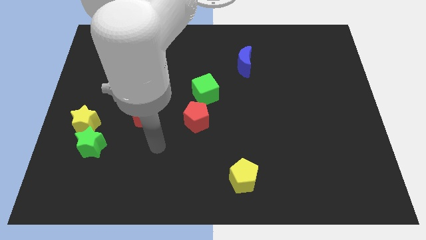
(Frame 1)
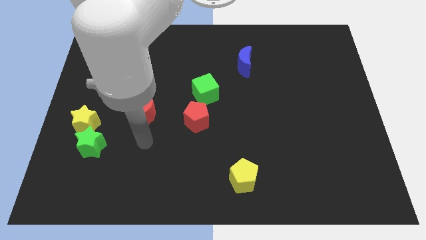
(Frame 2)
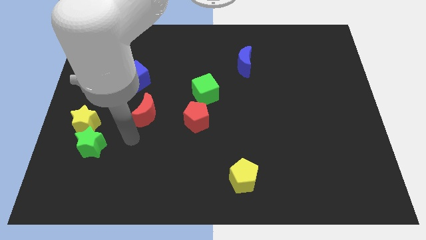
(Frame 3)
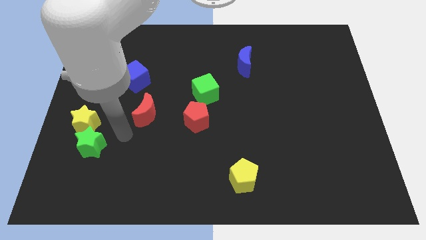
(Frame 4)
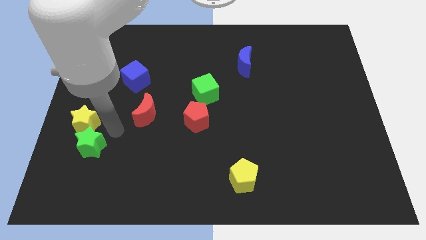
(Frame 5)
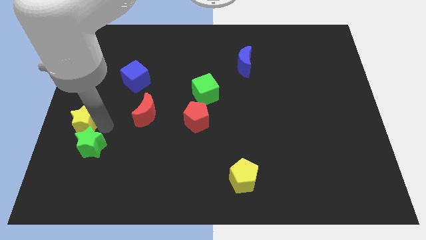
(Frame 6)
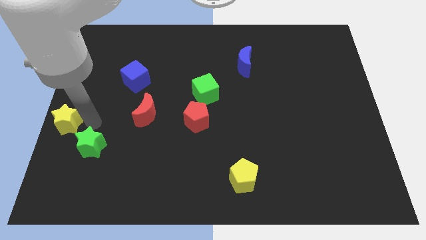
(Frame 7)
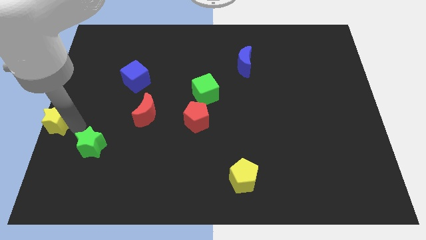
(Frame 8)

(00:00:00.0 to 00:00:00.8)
separate the green star from the yellow star

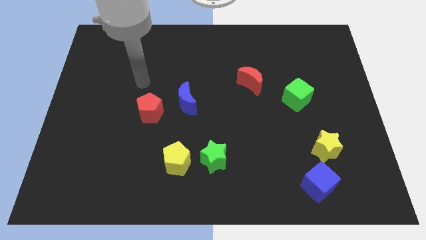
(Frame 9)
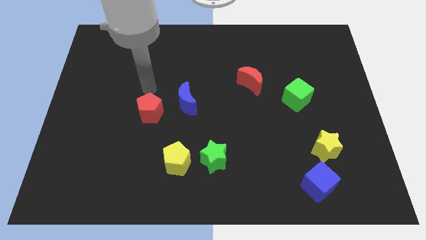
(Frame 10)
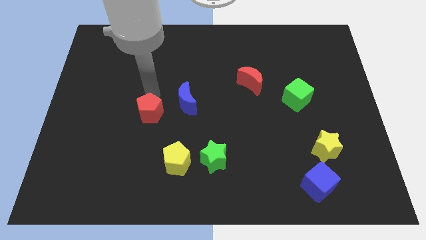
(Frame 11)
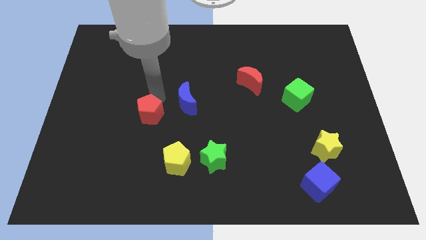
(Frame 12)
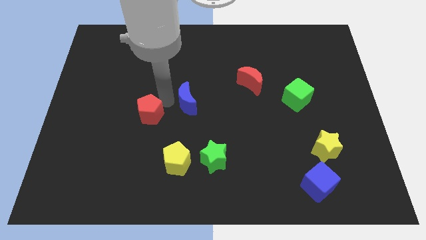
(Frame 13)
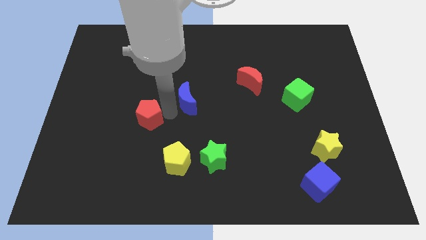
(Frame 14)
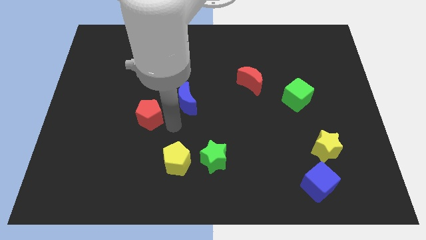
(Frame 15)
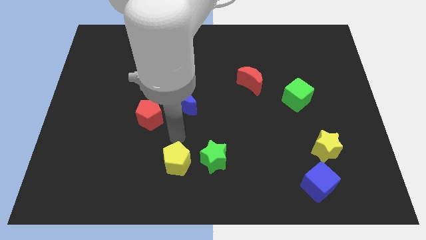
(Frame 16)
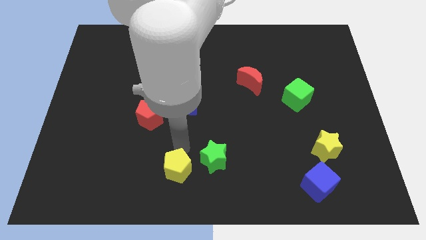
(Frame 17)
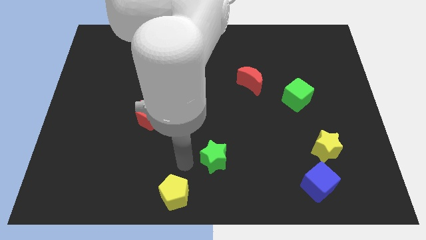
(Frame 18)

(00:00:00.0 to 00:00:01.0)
pull the green star apart from the yellow pentagon

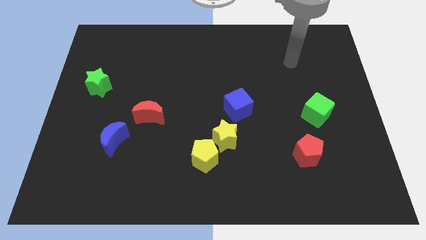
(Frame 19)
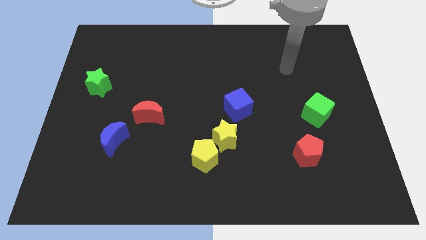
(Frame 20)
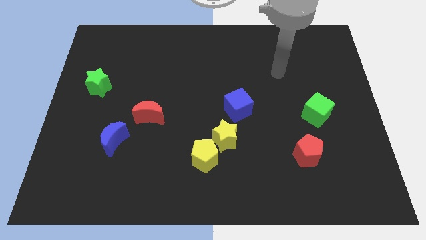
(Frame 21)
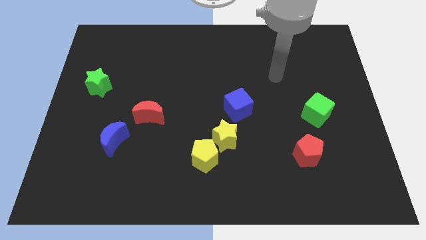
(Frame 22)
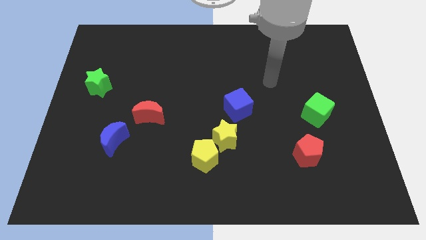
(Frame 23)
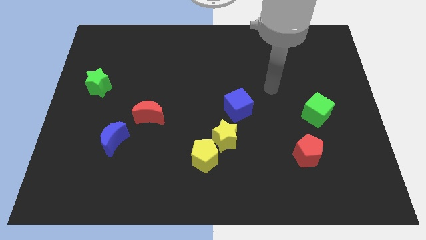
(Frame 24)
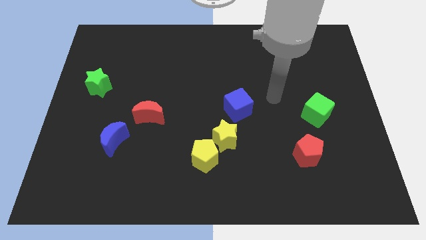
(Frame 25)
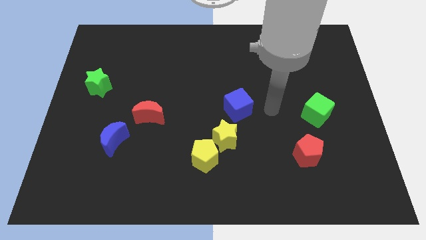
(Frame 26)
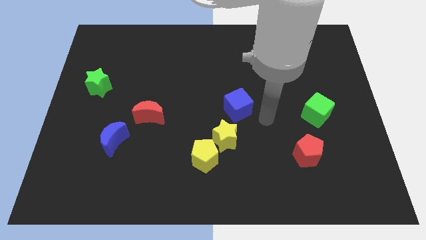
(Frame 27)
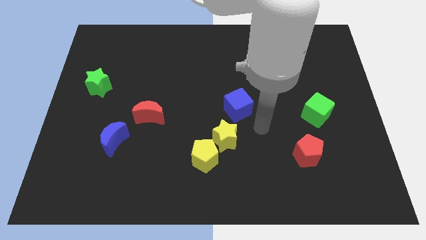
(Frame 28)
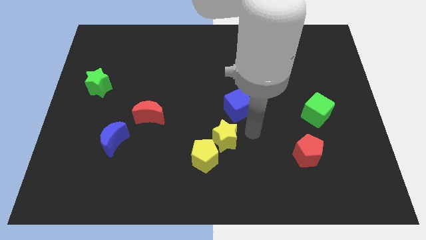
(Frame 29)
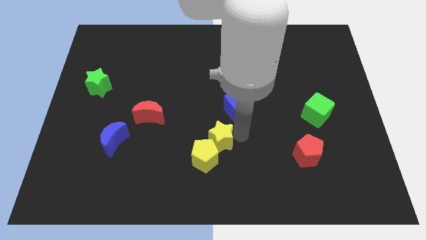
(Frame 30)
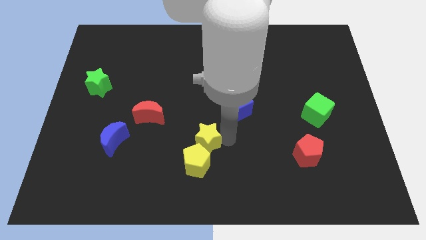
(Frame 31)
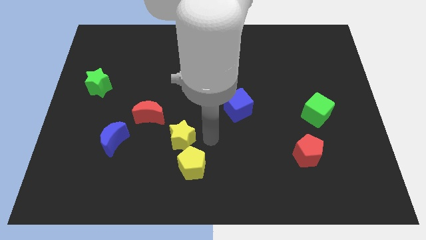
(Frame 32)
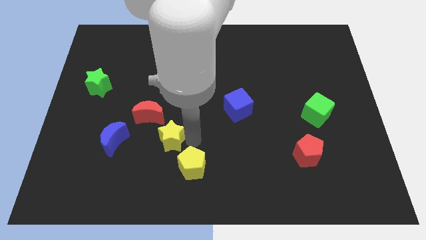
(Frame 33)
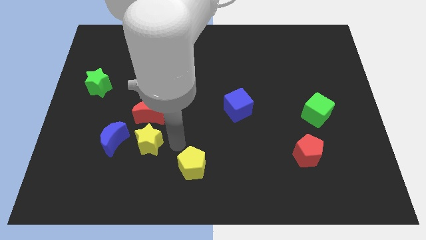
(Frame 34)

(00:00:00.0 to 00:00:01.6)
move the yellow pentagon away from the yellow star

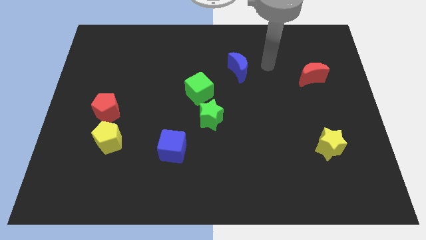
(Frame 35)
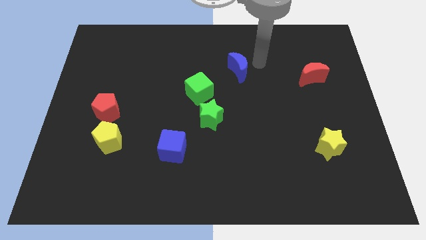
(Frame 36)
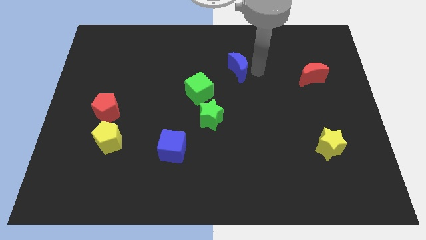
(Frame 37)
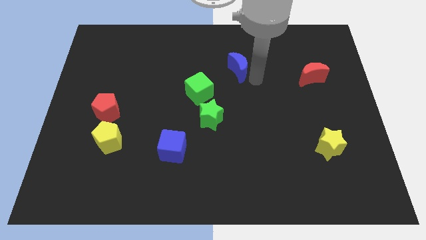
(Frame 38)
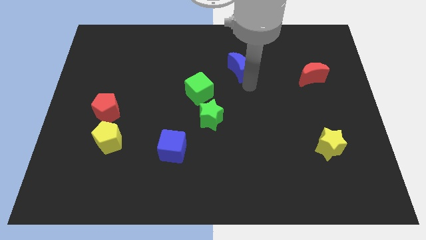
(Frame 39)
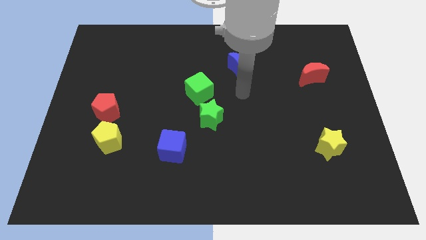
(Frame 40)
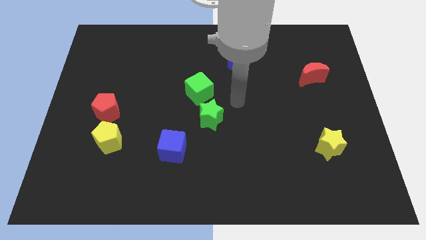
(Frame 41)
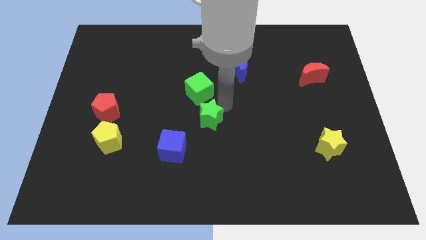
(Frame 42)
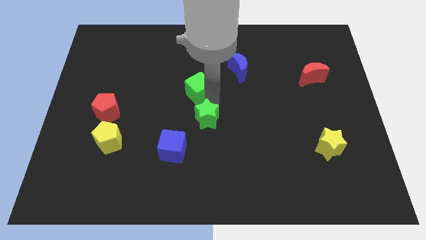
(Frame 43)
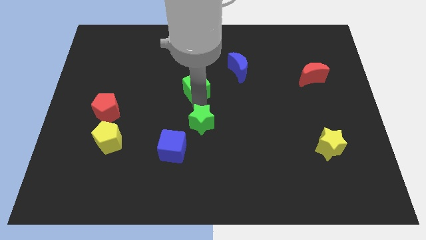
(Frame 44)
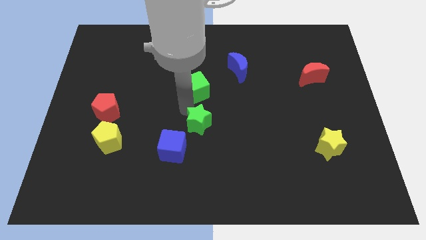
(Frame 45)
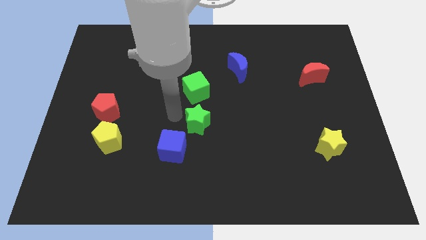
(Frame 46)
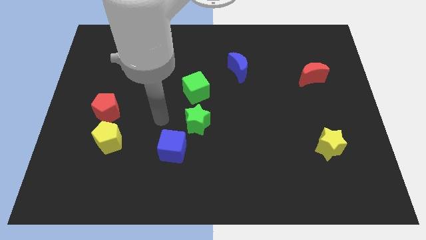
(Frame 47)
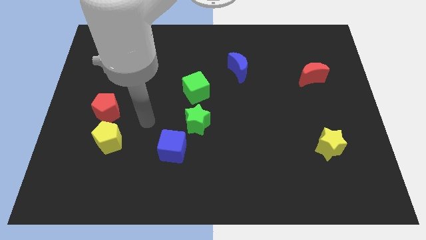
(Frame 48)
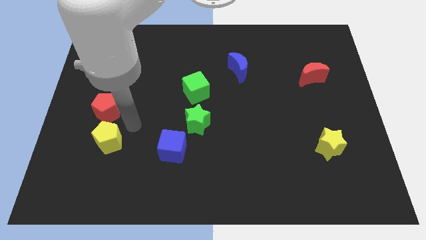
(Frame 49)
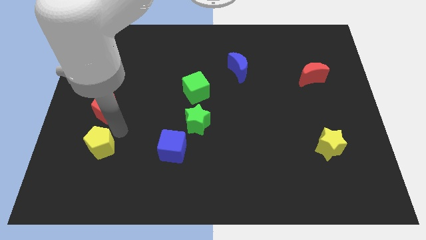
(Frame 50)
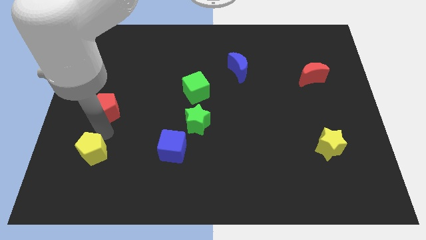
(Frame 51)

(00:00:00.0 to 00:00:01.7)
pull the red pentagon apart from the yellow pentagon

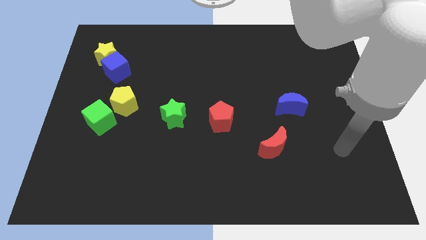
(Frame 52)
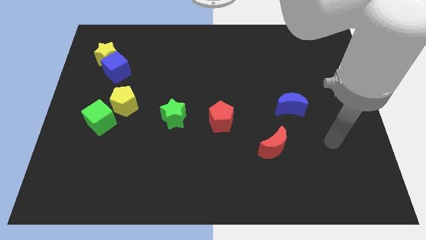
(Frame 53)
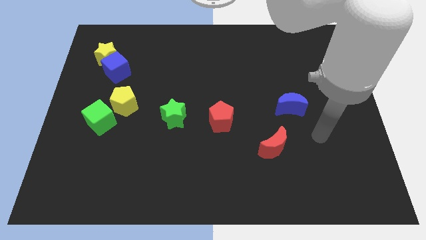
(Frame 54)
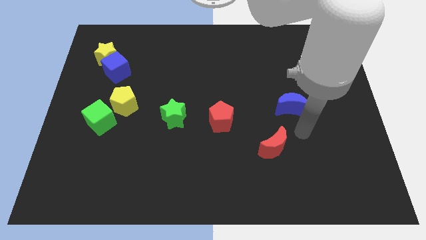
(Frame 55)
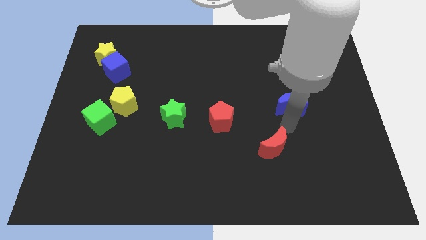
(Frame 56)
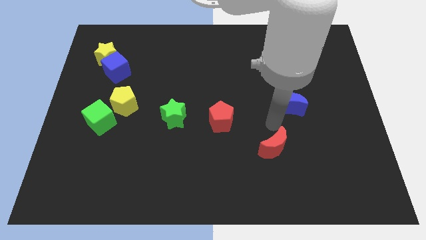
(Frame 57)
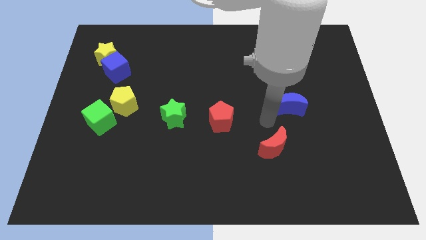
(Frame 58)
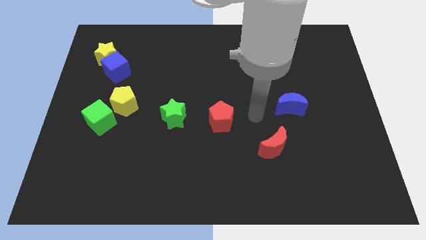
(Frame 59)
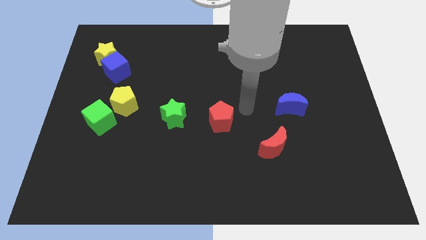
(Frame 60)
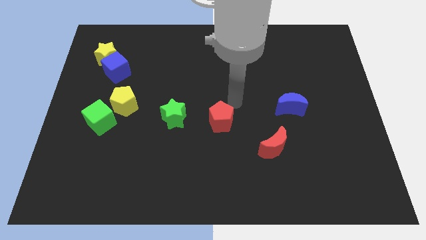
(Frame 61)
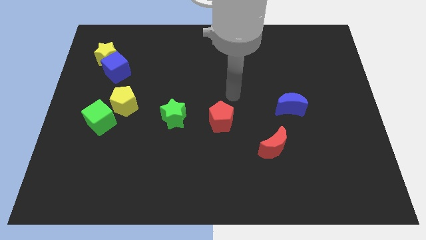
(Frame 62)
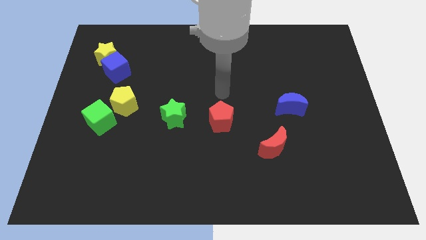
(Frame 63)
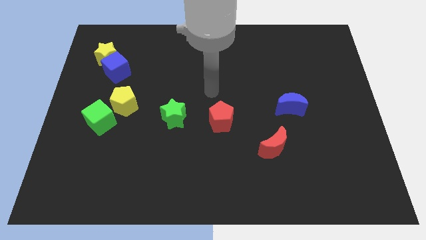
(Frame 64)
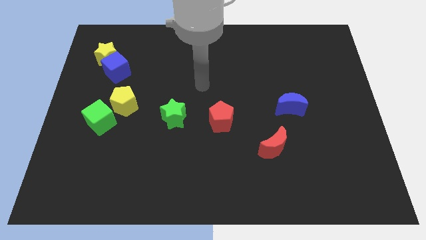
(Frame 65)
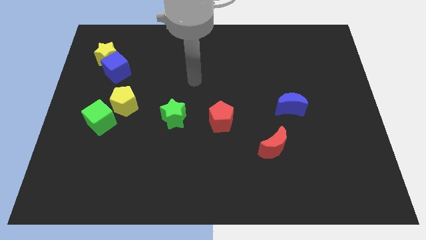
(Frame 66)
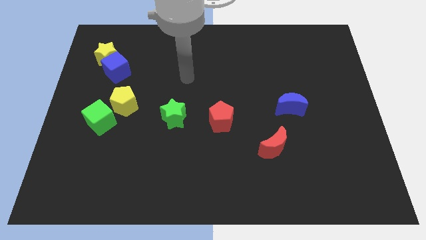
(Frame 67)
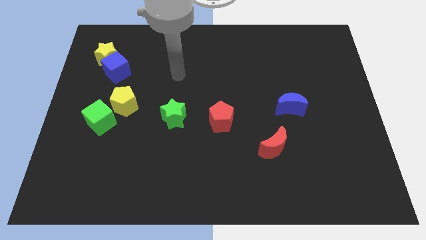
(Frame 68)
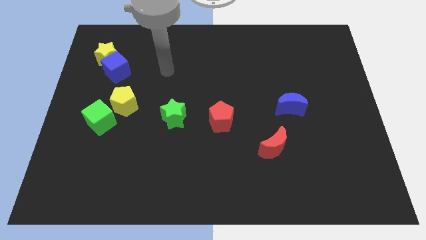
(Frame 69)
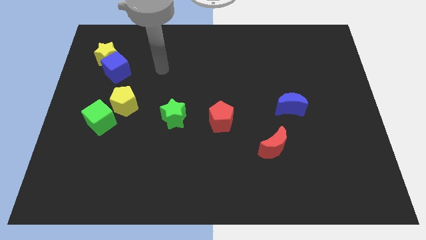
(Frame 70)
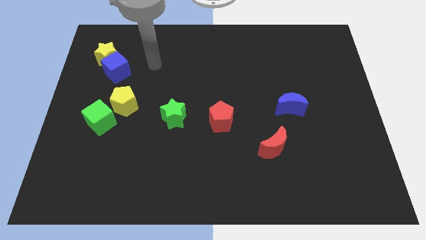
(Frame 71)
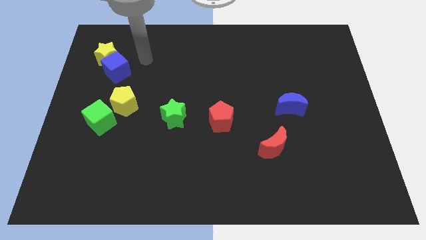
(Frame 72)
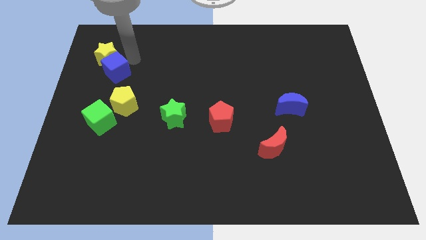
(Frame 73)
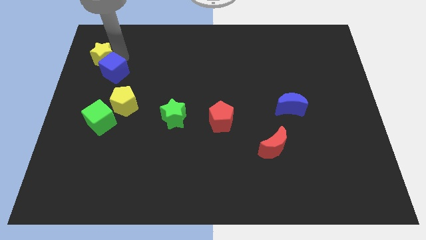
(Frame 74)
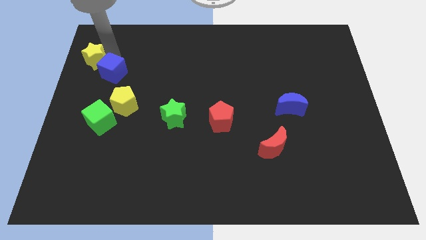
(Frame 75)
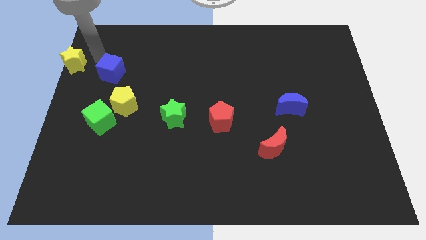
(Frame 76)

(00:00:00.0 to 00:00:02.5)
separate the blue cube from the yellow star

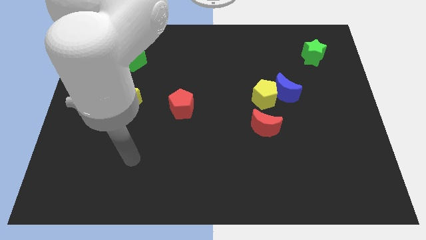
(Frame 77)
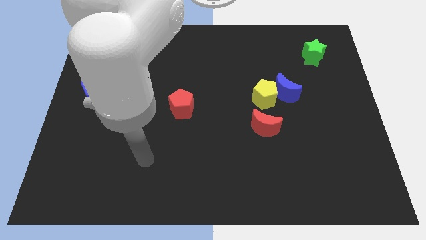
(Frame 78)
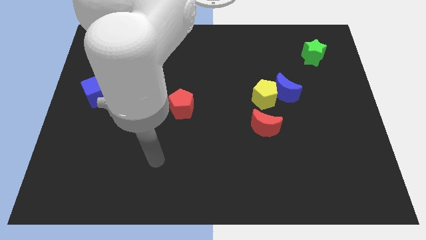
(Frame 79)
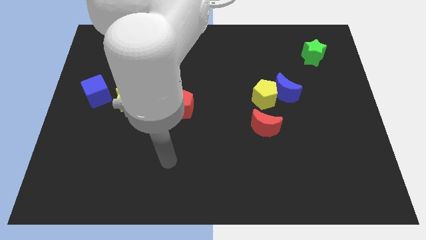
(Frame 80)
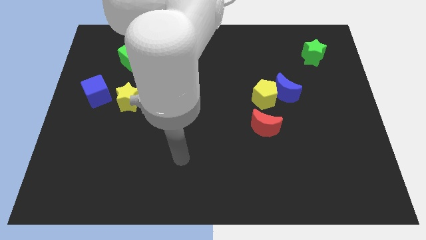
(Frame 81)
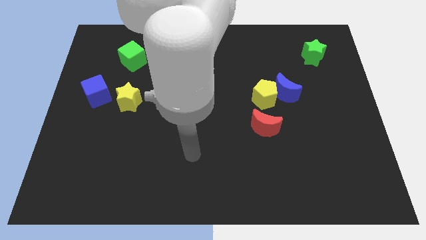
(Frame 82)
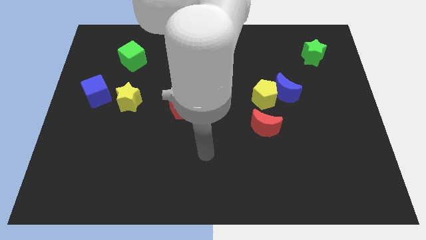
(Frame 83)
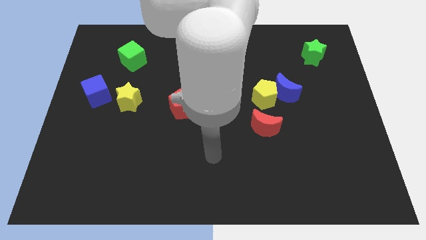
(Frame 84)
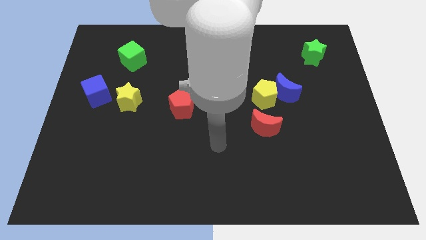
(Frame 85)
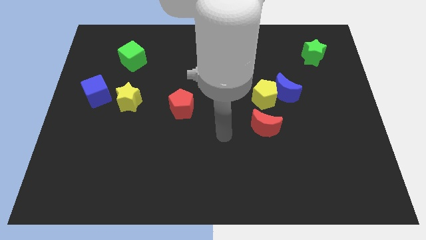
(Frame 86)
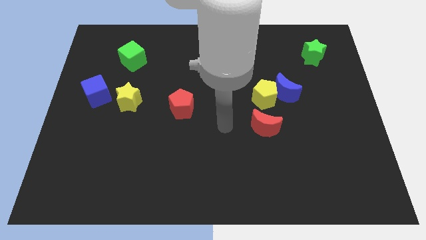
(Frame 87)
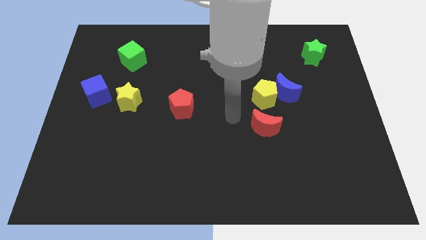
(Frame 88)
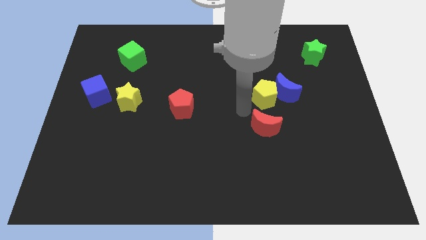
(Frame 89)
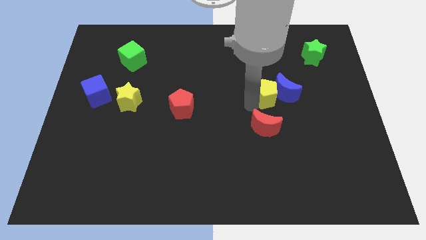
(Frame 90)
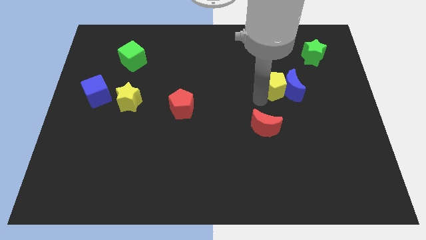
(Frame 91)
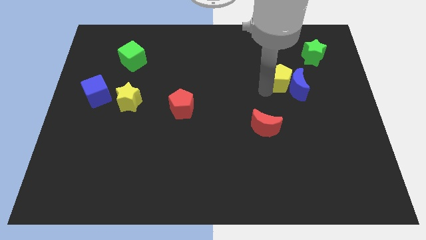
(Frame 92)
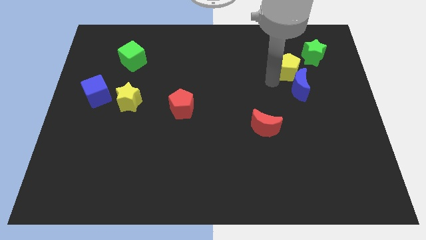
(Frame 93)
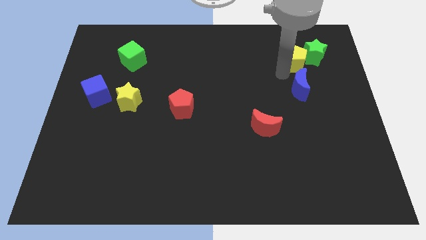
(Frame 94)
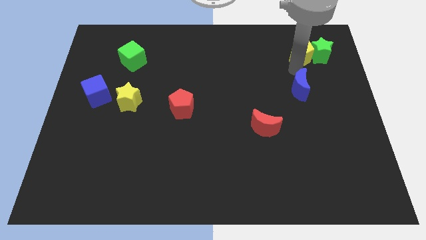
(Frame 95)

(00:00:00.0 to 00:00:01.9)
separate the blue moon from the yellow pentagon
